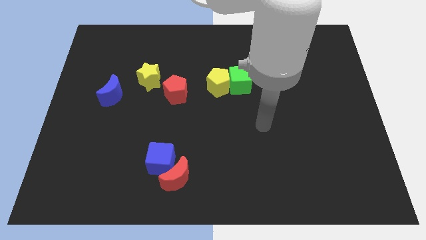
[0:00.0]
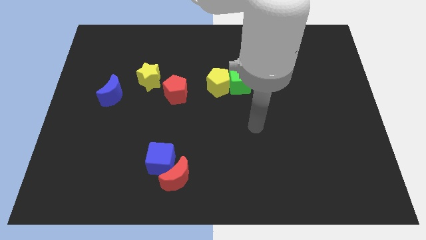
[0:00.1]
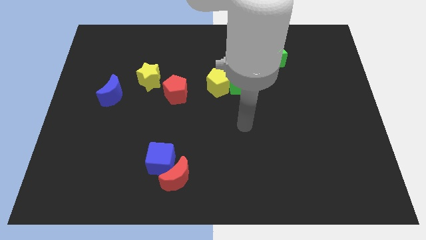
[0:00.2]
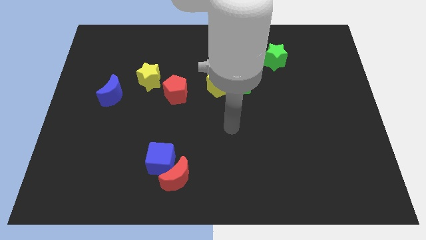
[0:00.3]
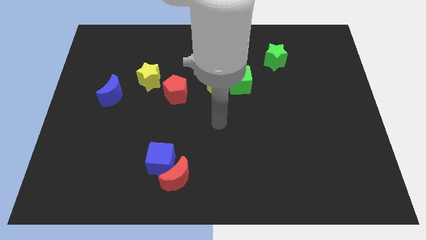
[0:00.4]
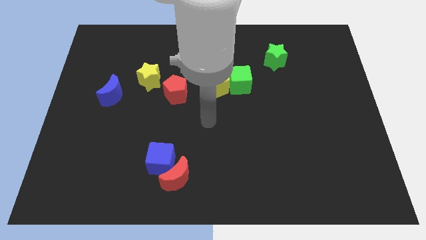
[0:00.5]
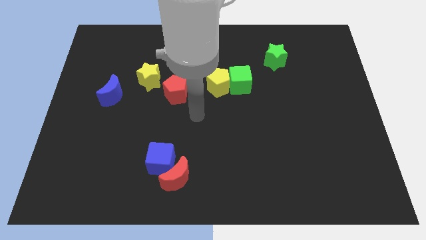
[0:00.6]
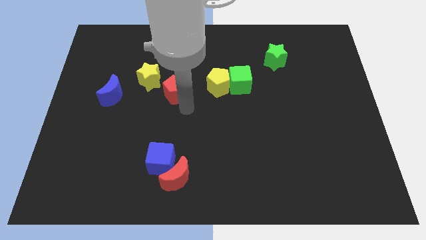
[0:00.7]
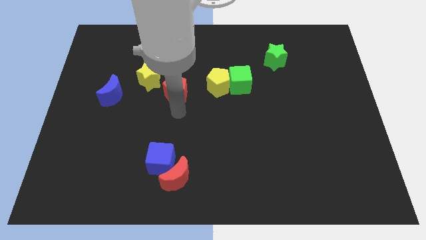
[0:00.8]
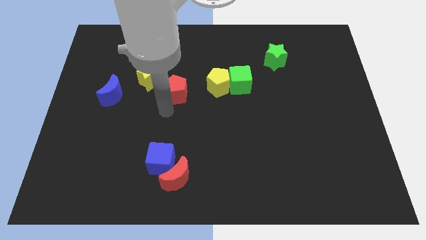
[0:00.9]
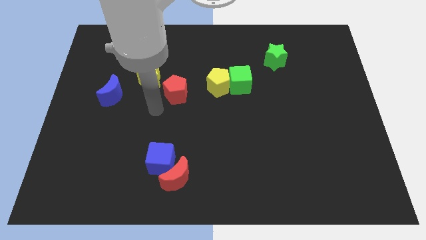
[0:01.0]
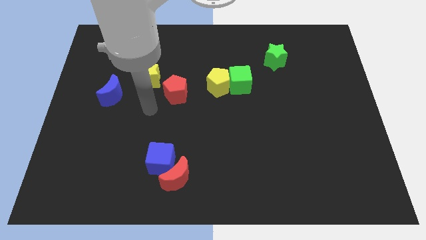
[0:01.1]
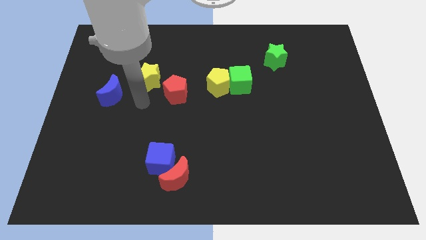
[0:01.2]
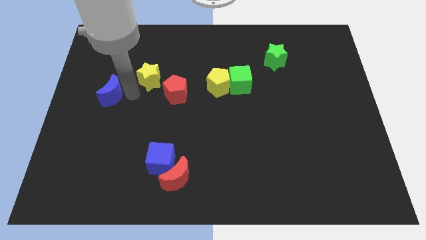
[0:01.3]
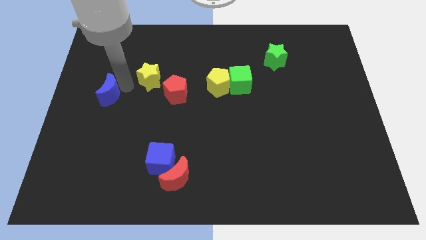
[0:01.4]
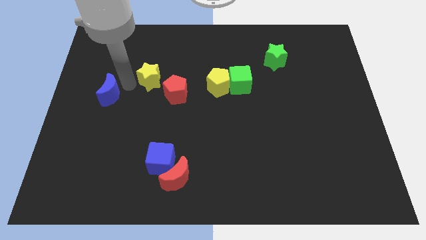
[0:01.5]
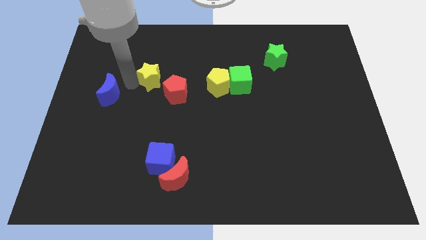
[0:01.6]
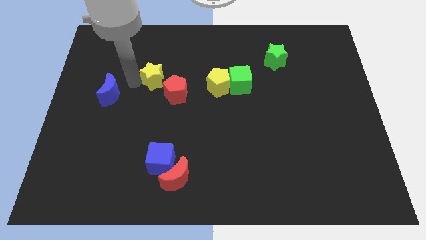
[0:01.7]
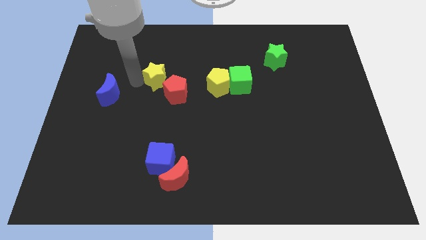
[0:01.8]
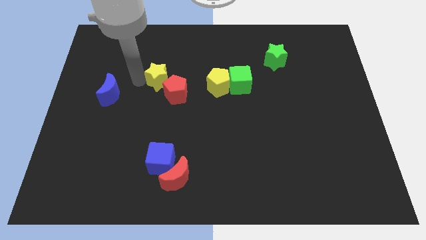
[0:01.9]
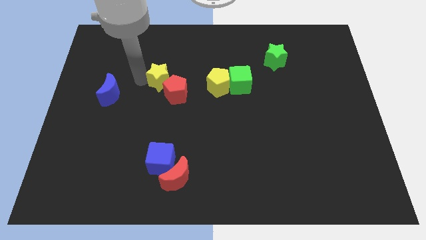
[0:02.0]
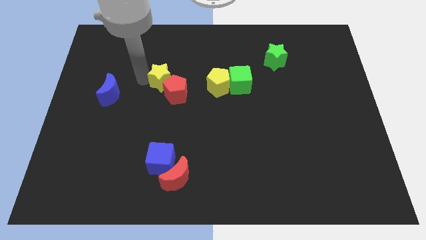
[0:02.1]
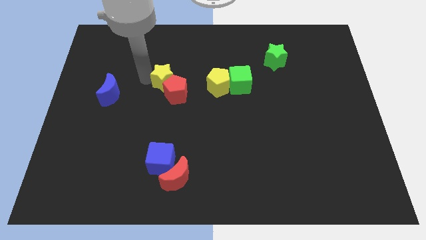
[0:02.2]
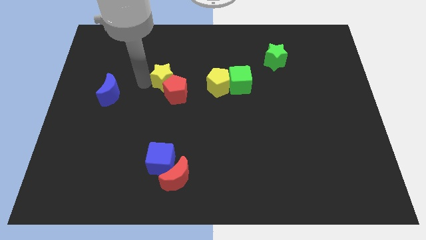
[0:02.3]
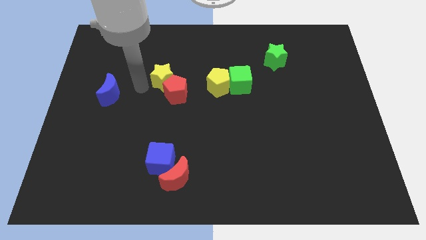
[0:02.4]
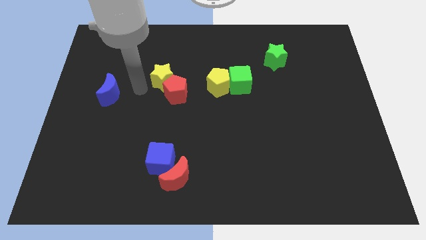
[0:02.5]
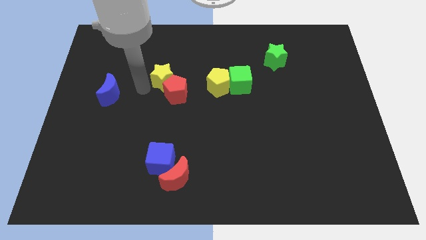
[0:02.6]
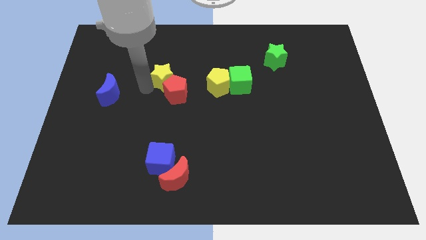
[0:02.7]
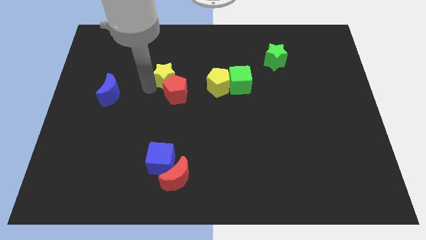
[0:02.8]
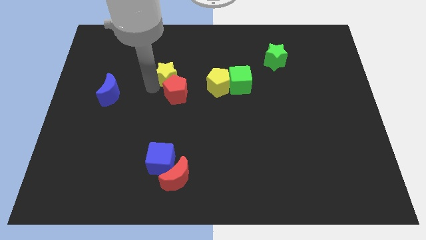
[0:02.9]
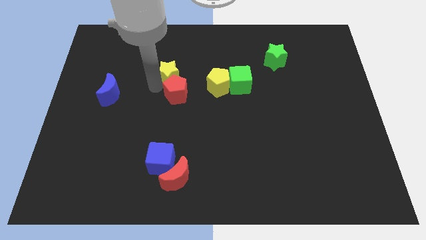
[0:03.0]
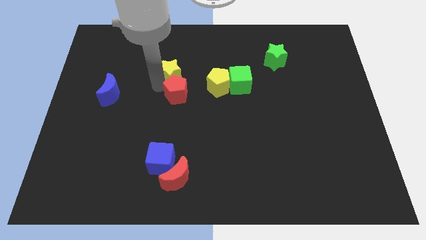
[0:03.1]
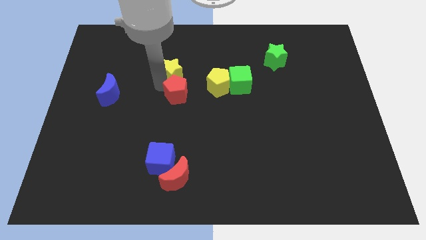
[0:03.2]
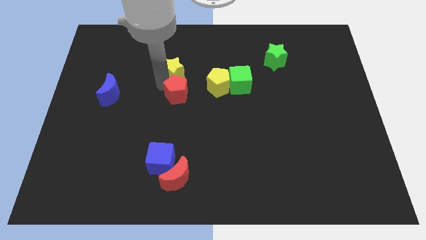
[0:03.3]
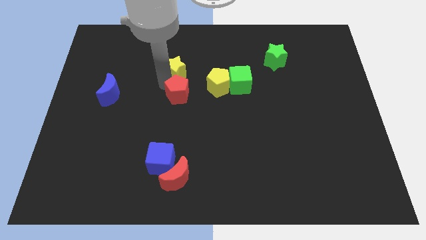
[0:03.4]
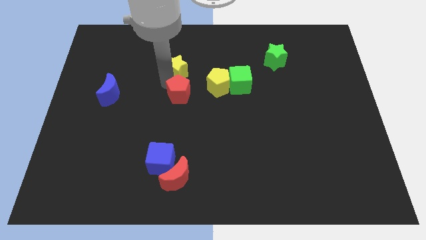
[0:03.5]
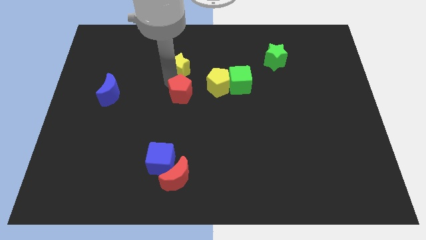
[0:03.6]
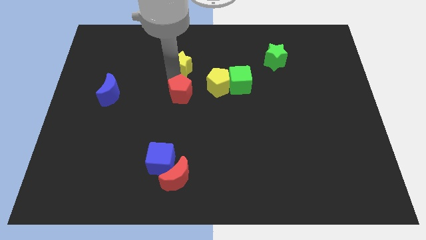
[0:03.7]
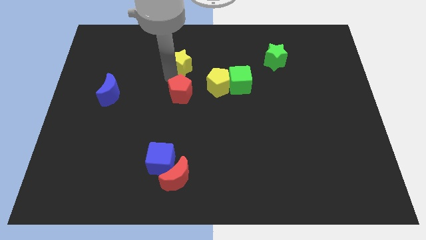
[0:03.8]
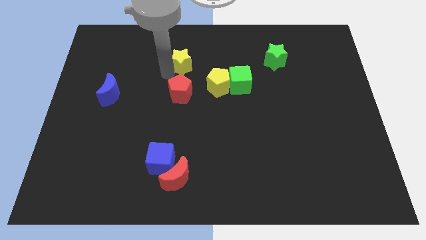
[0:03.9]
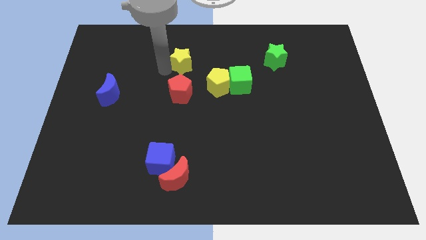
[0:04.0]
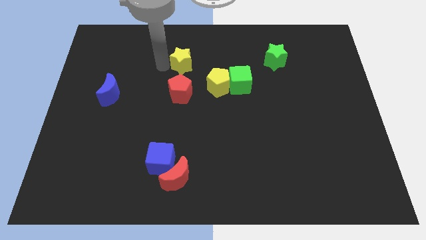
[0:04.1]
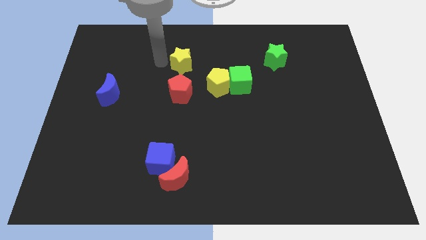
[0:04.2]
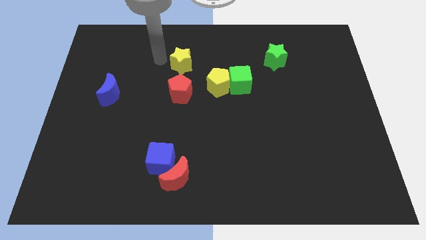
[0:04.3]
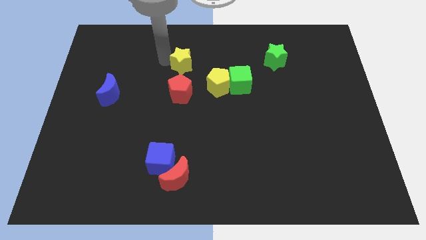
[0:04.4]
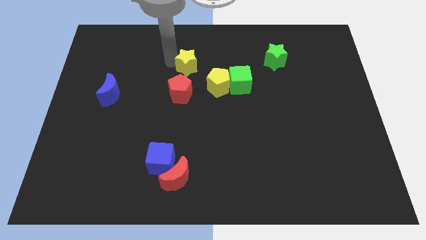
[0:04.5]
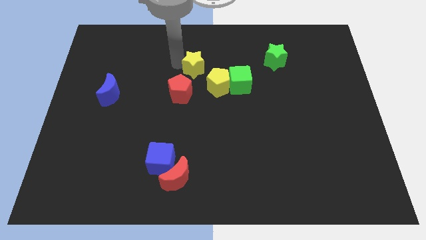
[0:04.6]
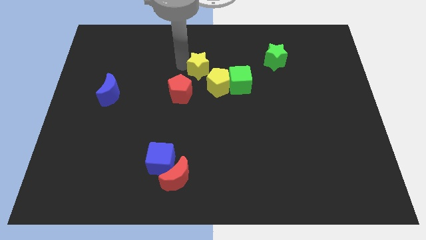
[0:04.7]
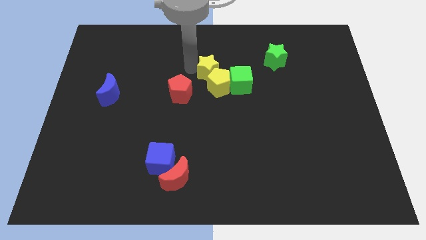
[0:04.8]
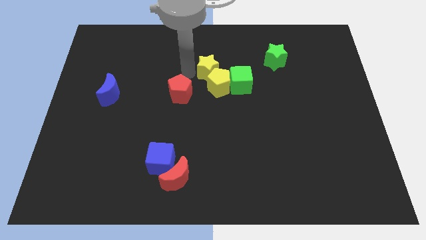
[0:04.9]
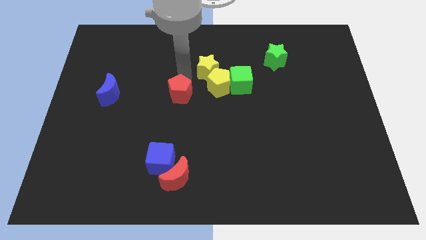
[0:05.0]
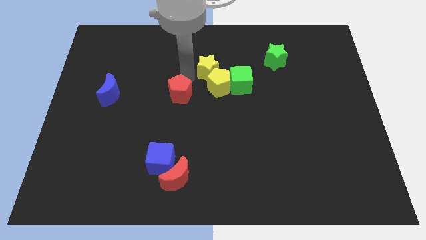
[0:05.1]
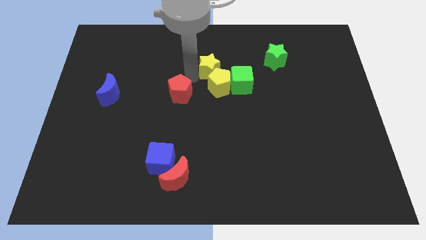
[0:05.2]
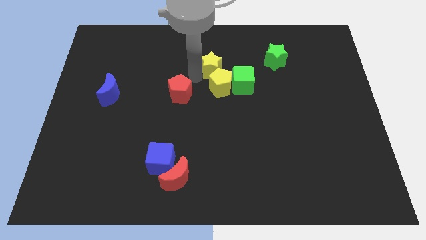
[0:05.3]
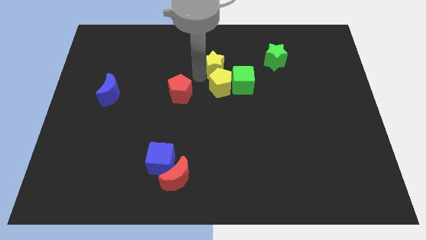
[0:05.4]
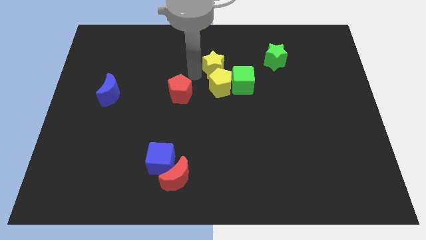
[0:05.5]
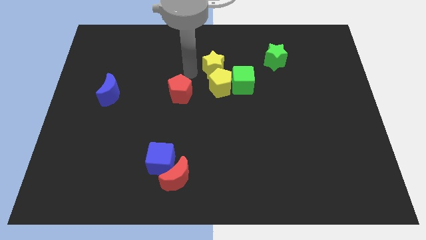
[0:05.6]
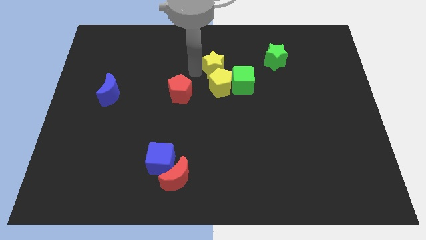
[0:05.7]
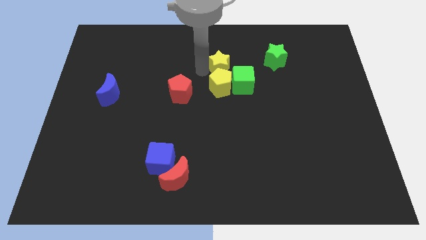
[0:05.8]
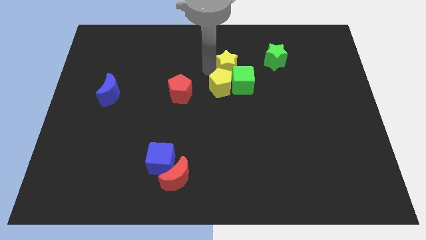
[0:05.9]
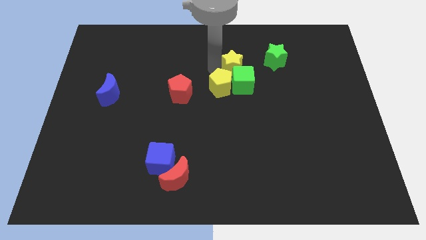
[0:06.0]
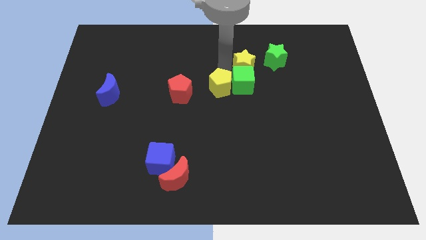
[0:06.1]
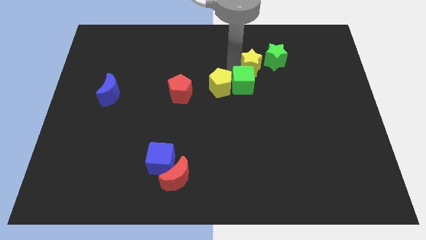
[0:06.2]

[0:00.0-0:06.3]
move the yellow star towards the green star

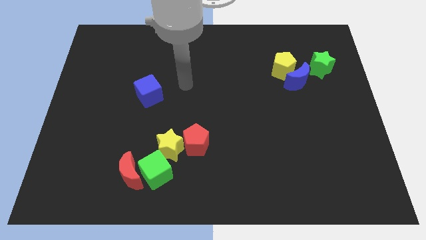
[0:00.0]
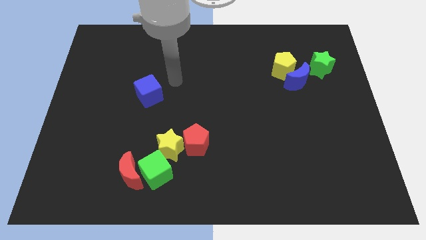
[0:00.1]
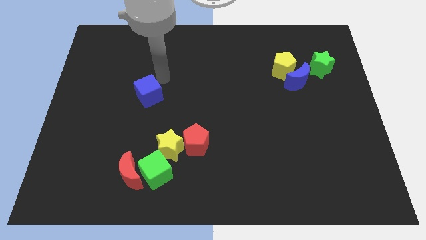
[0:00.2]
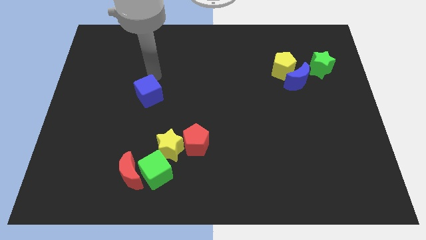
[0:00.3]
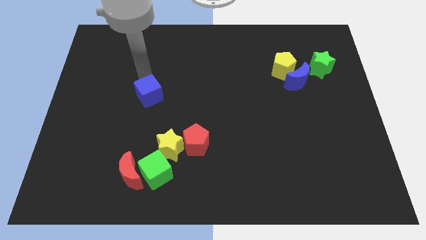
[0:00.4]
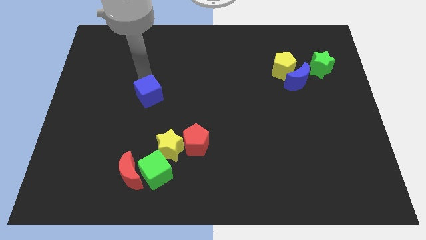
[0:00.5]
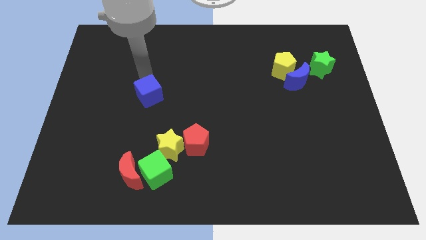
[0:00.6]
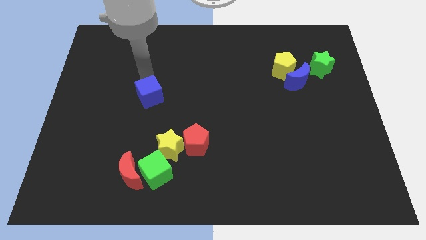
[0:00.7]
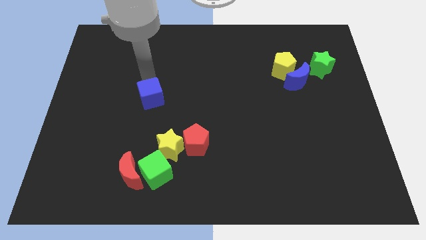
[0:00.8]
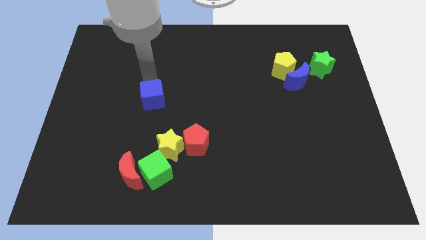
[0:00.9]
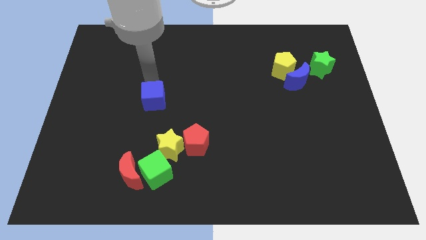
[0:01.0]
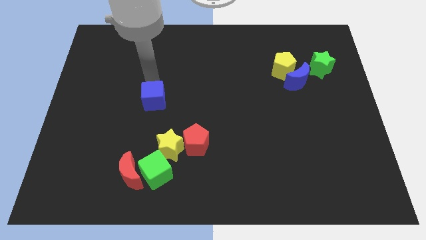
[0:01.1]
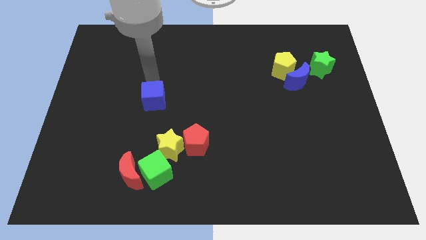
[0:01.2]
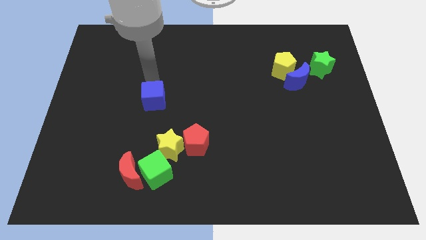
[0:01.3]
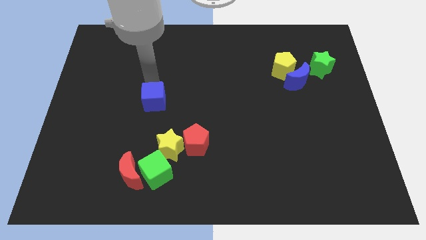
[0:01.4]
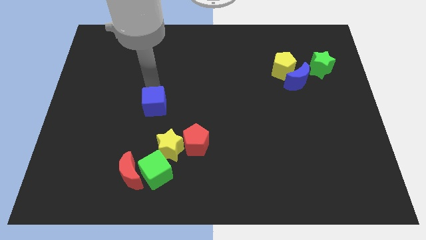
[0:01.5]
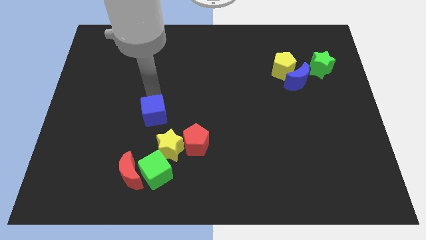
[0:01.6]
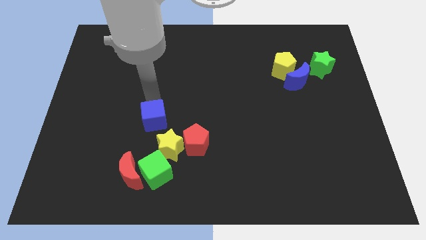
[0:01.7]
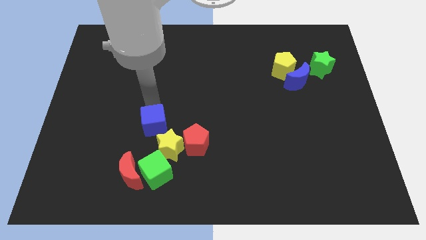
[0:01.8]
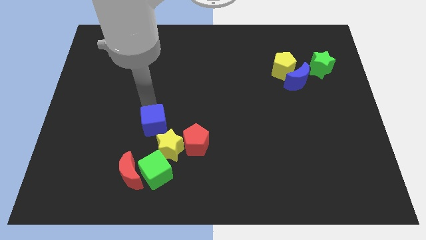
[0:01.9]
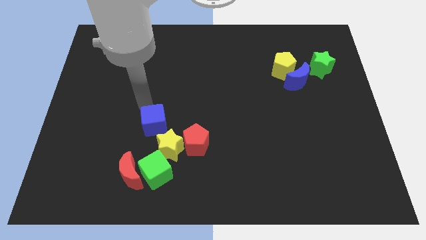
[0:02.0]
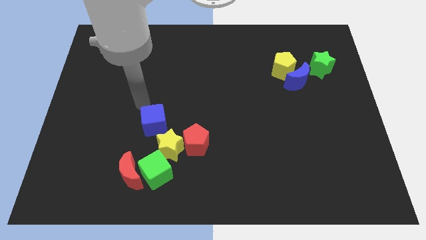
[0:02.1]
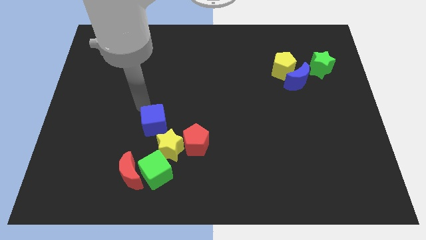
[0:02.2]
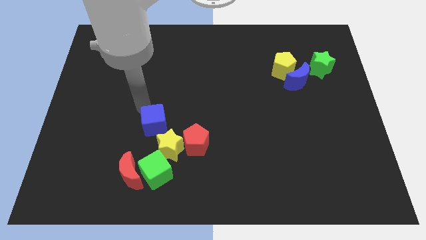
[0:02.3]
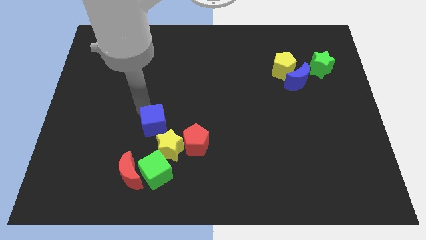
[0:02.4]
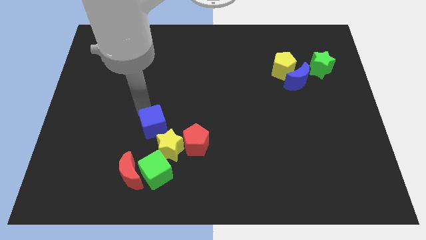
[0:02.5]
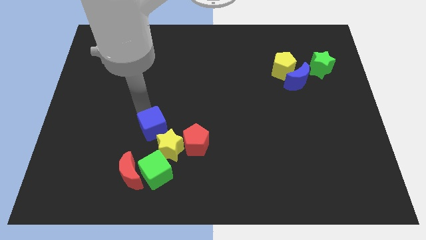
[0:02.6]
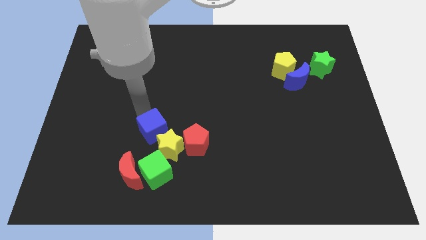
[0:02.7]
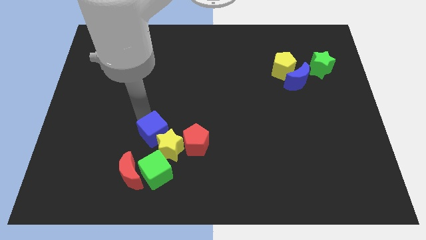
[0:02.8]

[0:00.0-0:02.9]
move the blue cube close to the yellow star
